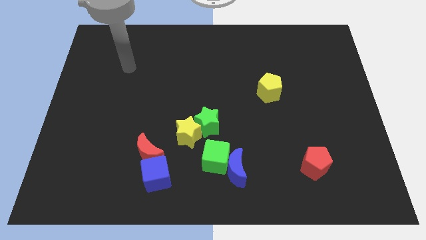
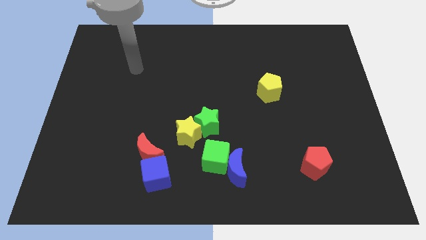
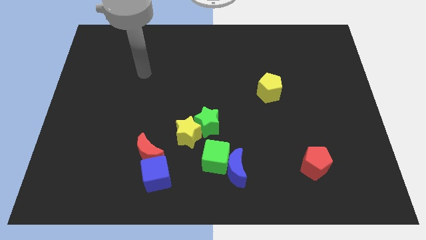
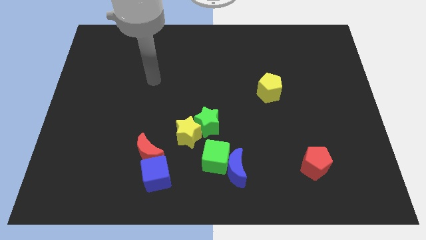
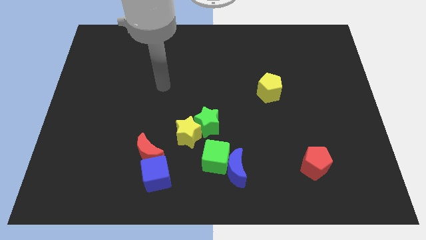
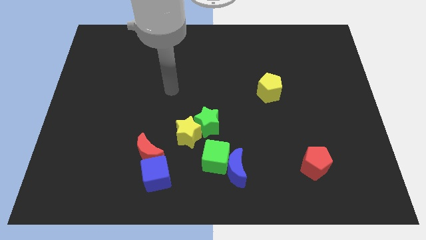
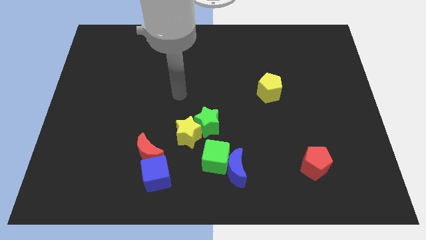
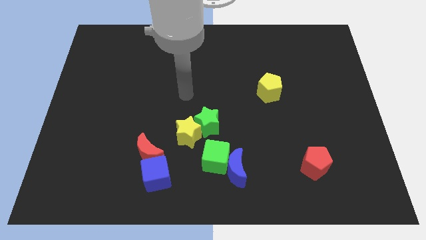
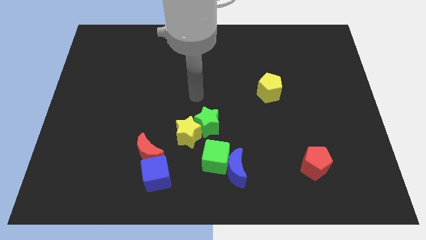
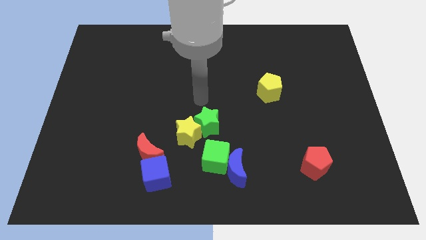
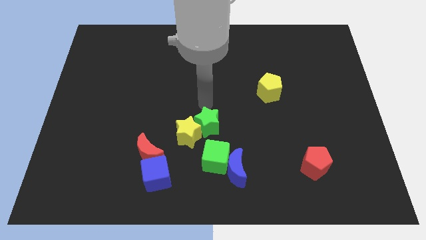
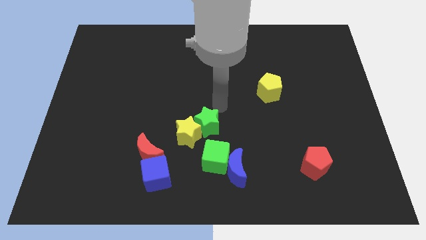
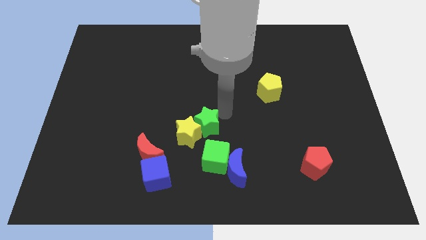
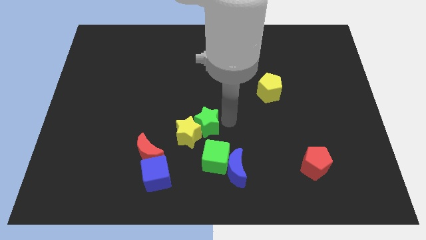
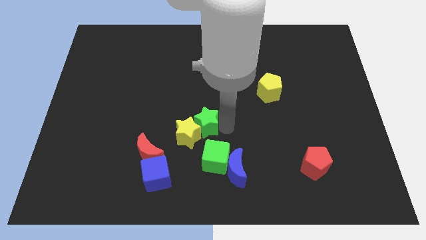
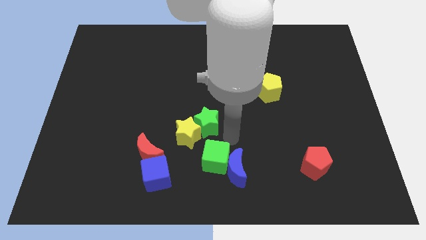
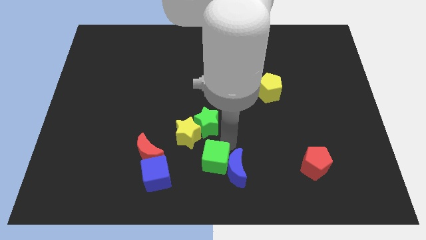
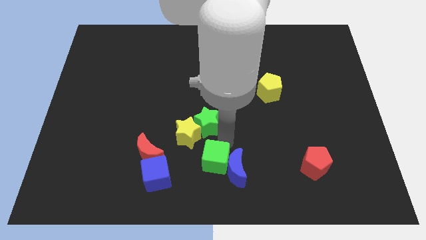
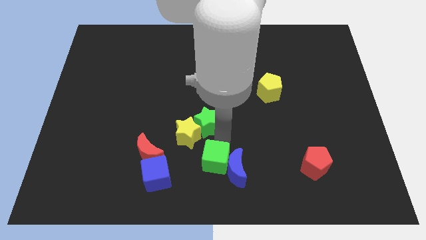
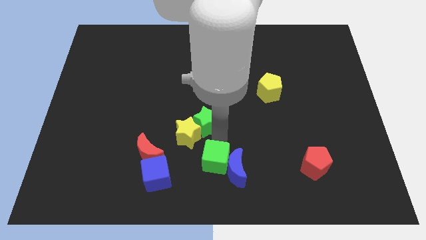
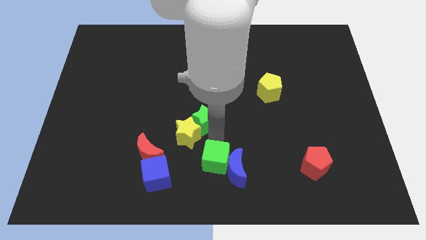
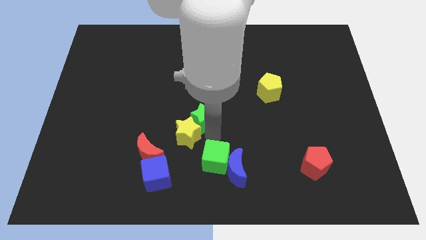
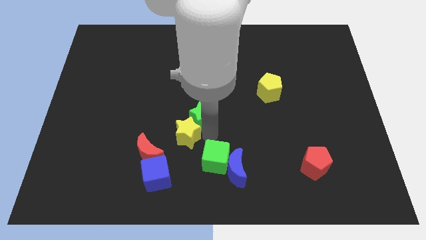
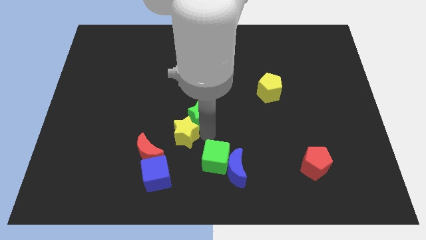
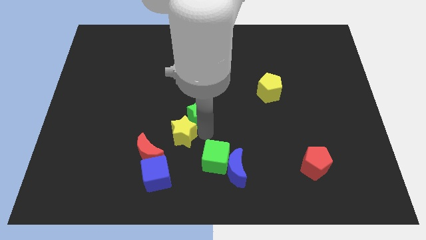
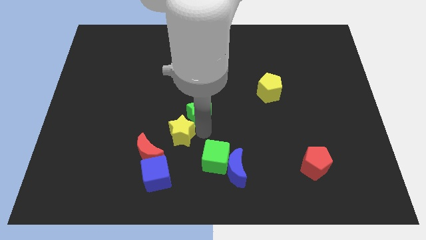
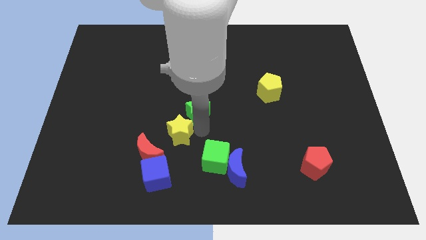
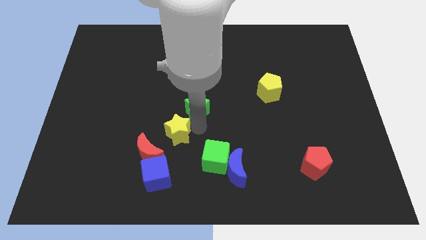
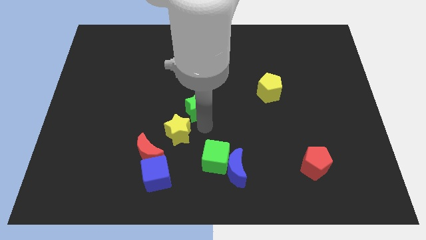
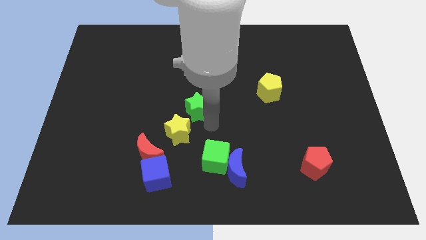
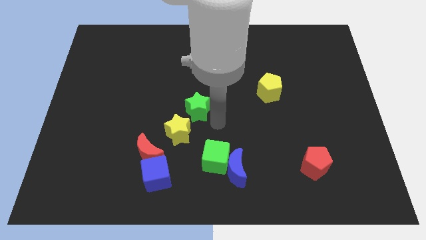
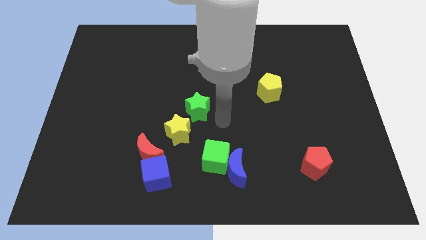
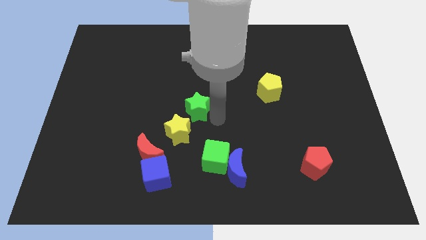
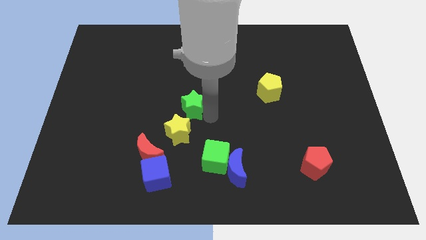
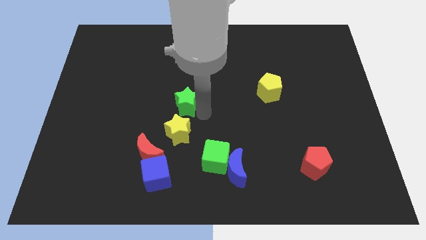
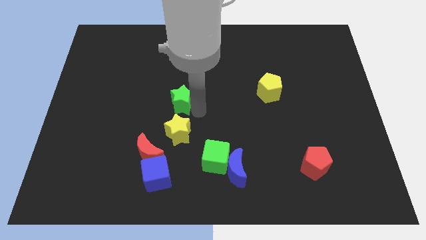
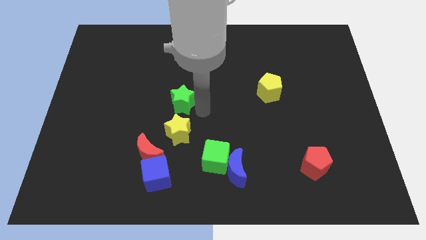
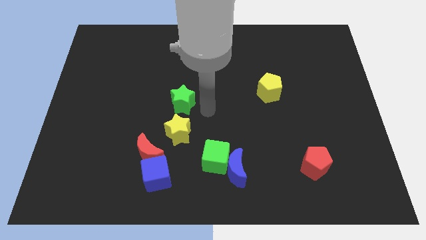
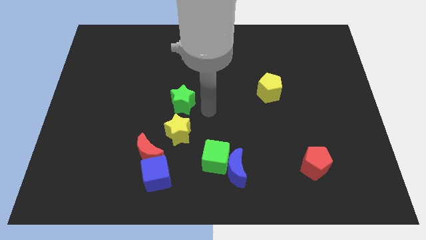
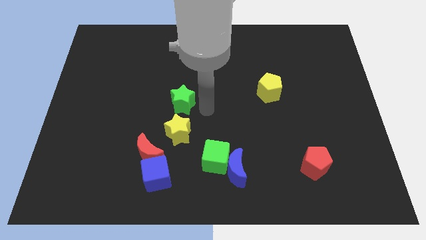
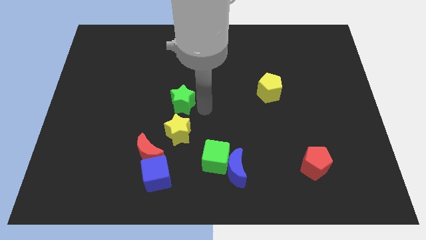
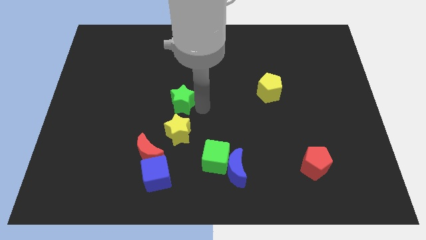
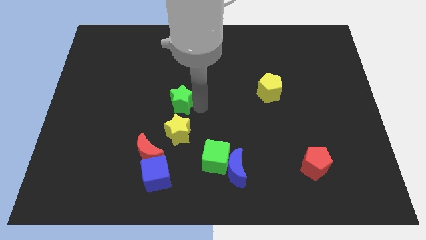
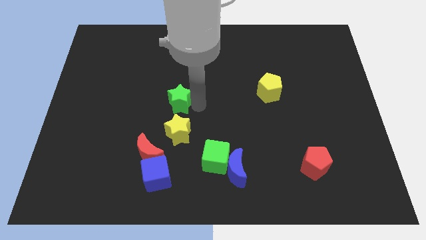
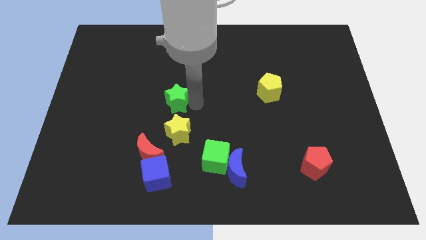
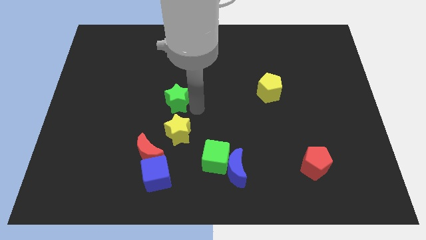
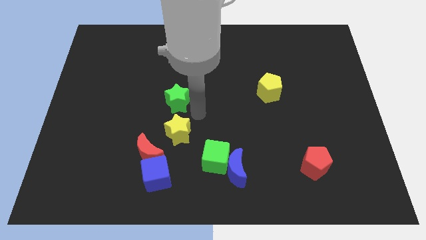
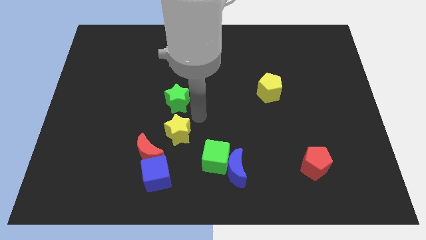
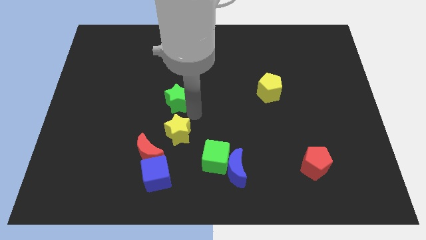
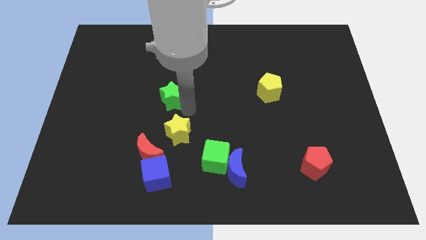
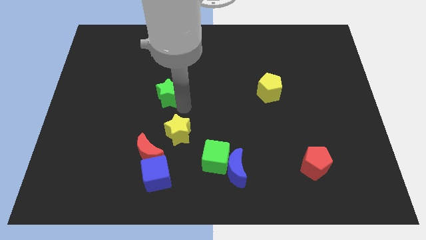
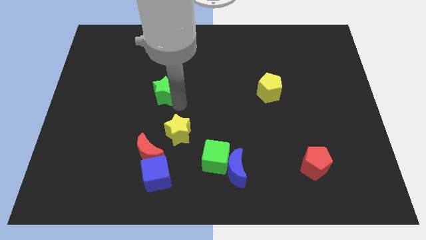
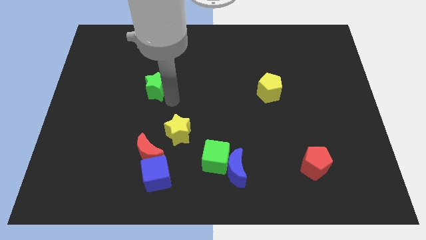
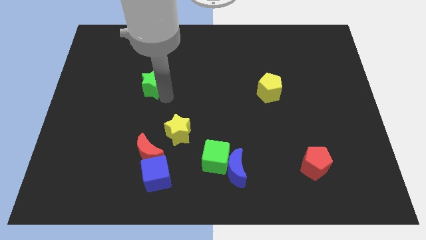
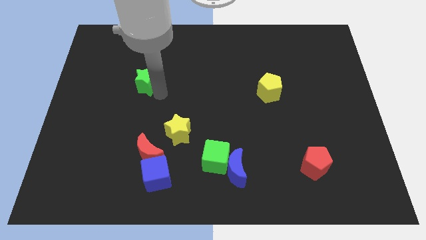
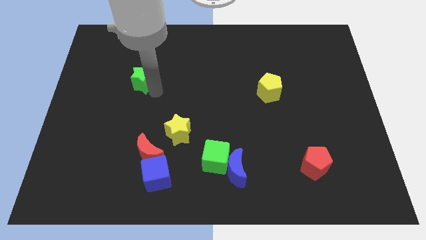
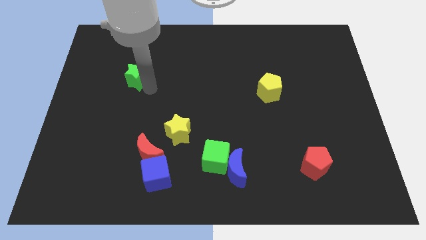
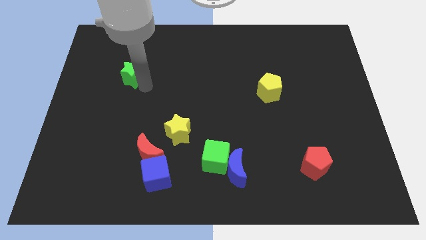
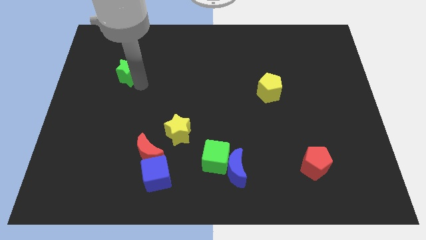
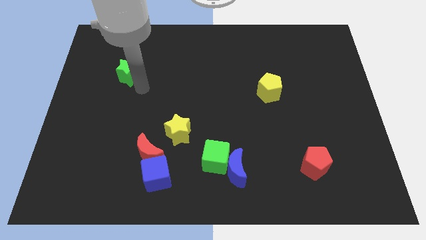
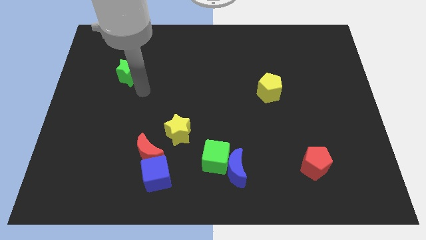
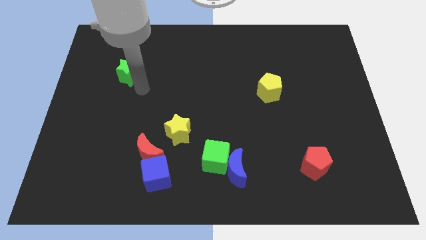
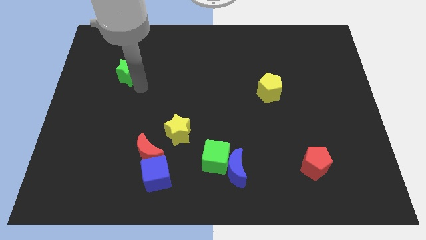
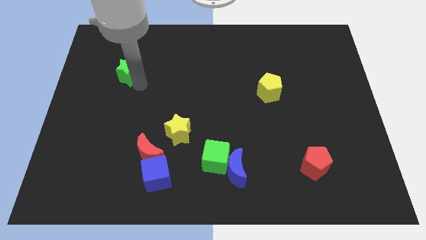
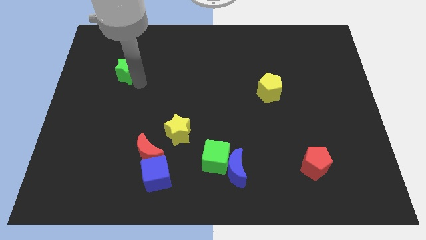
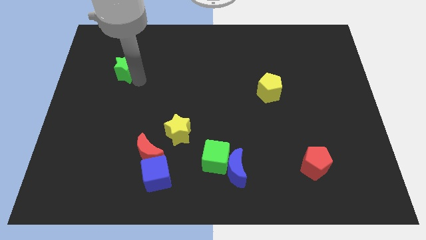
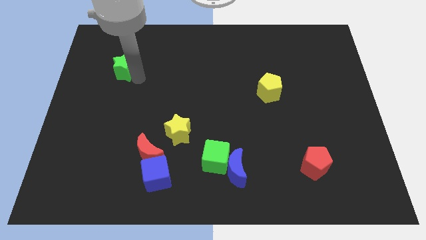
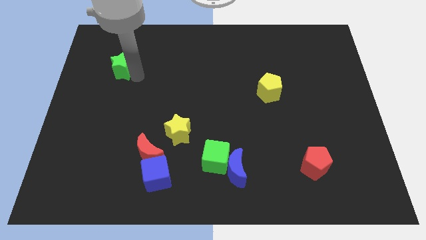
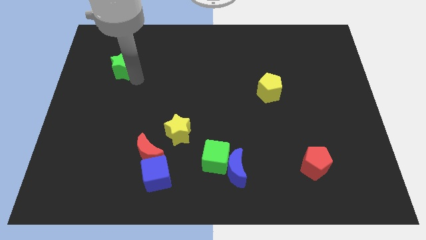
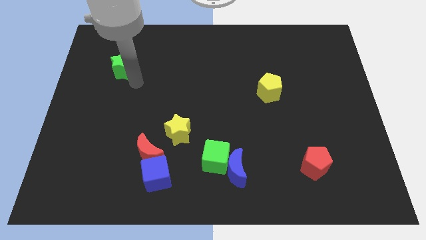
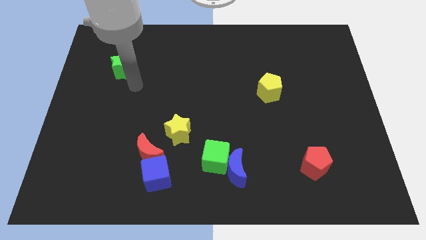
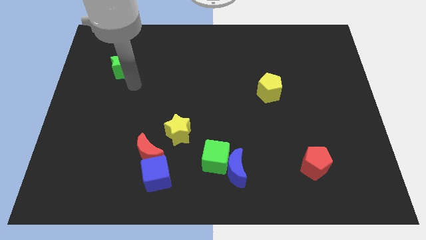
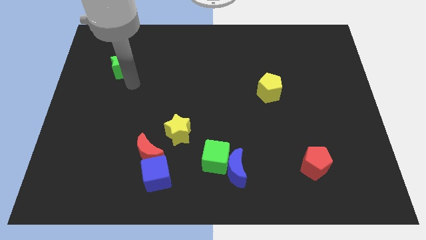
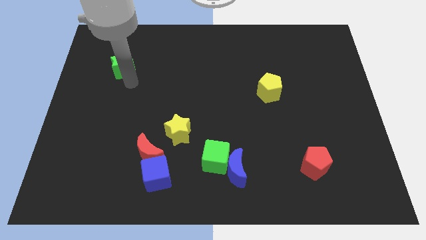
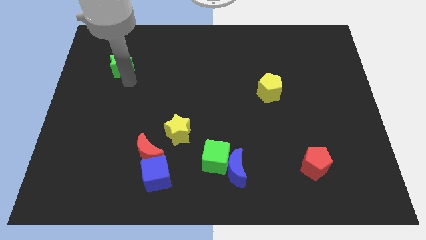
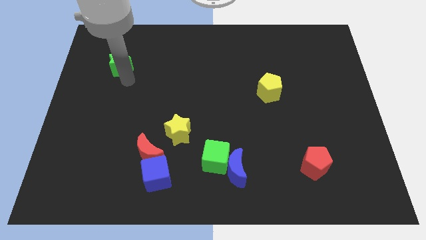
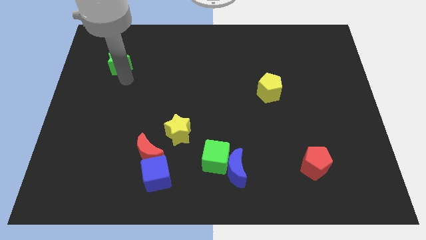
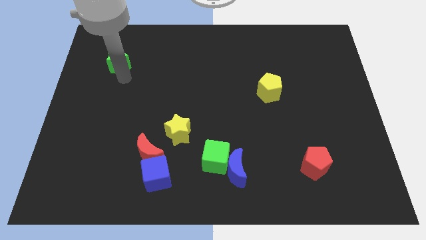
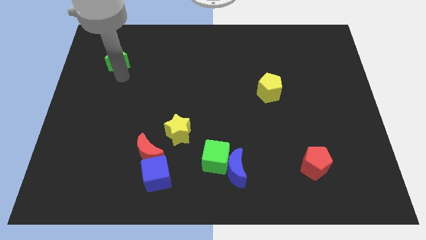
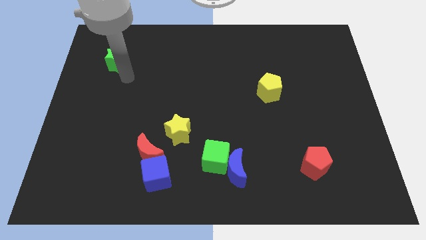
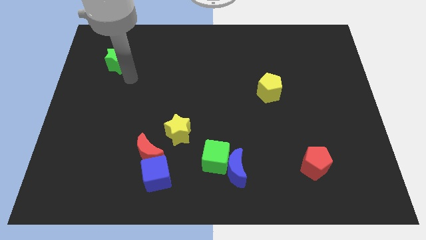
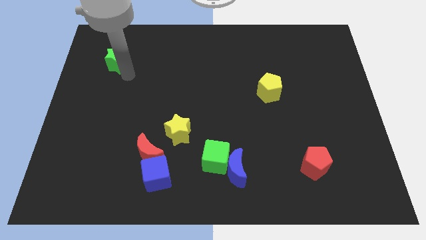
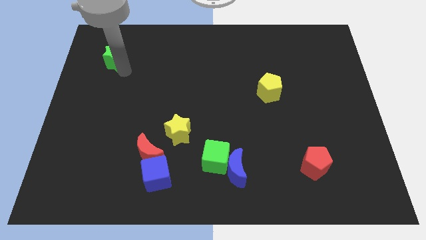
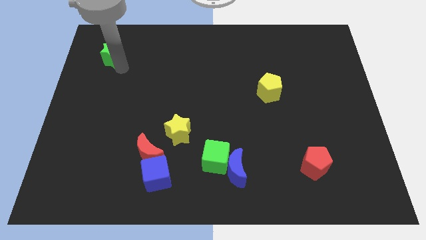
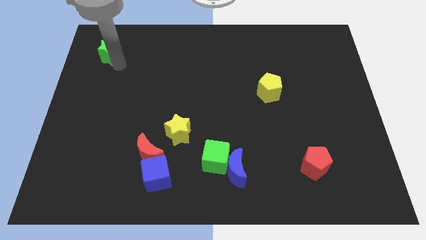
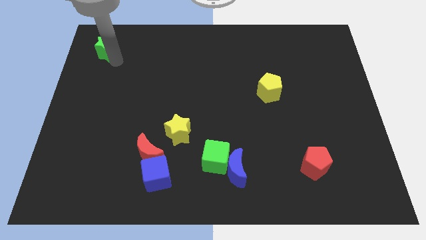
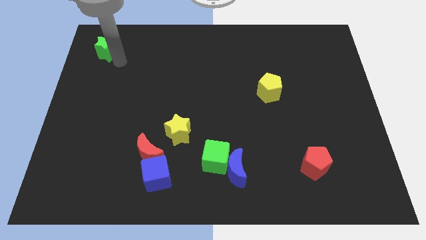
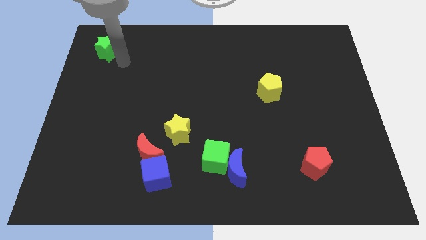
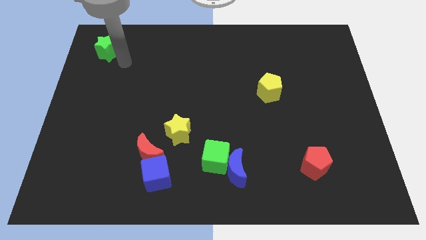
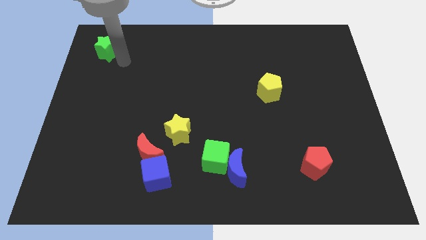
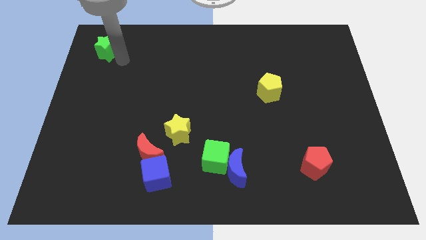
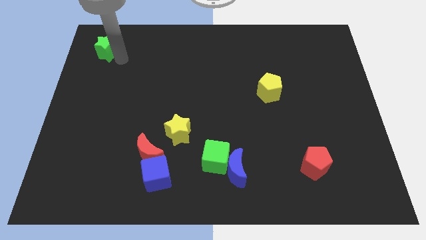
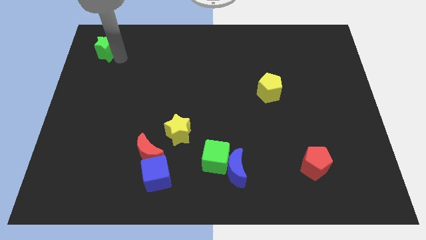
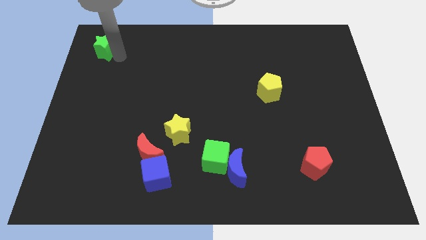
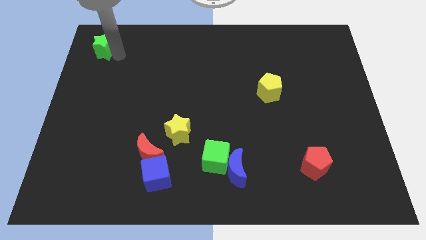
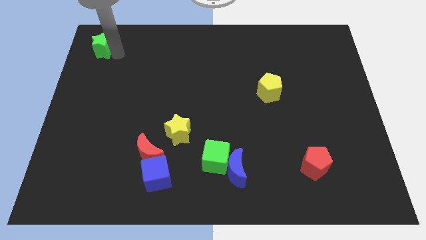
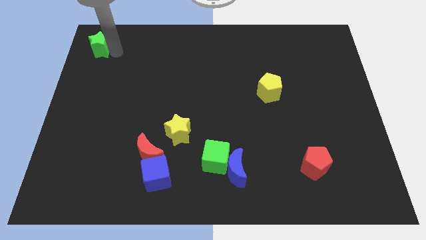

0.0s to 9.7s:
slide the green star to the top left of the board
